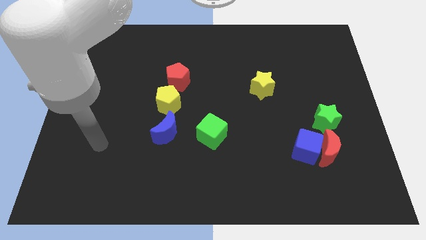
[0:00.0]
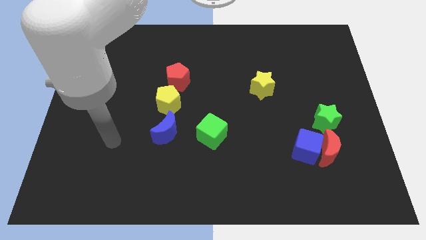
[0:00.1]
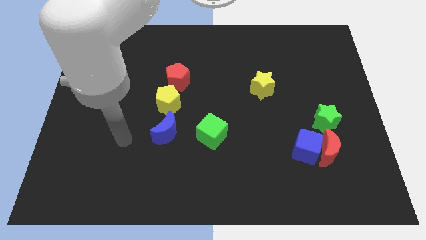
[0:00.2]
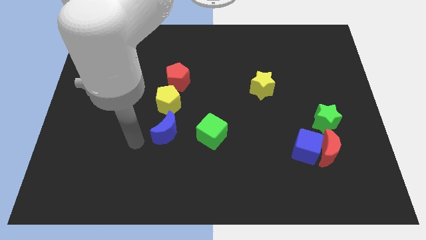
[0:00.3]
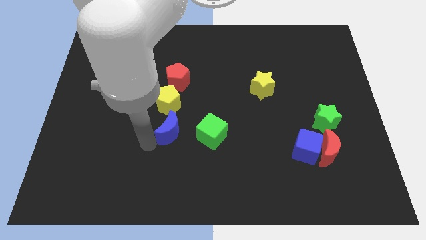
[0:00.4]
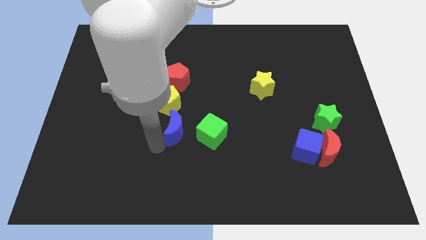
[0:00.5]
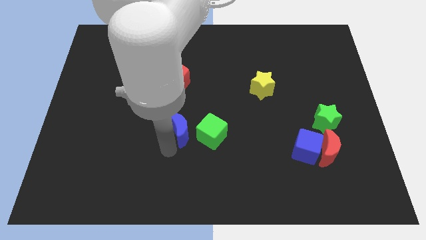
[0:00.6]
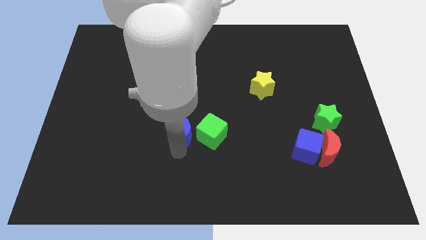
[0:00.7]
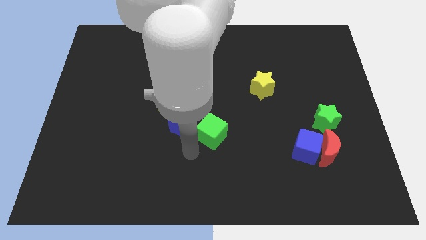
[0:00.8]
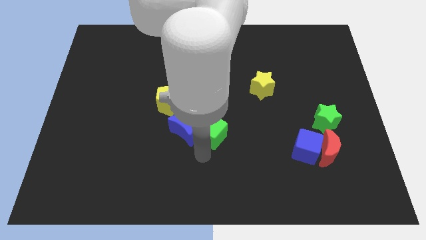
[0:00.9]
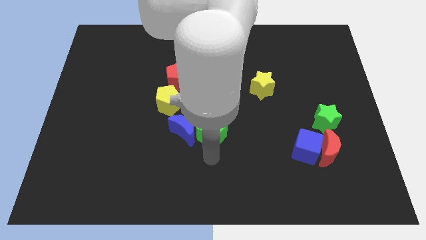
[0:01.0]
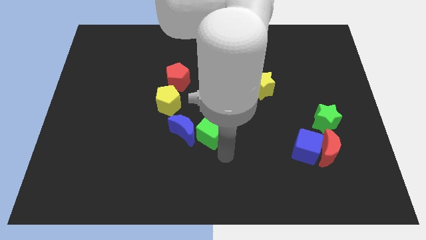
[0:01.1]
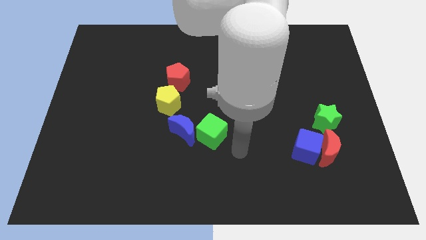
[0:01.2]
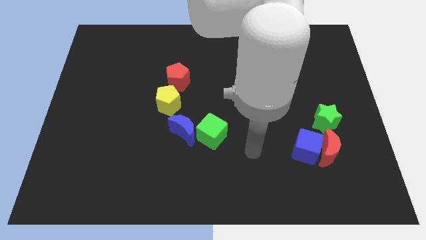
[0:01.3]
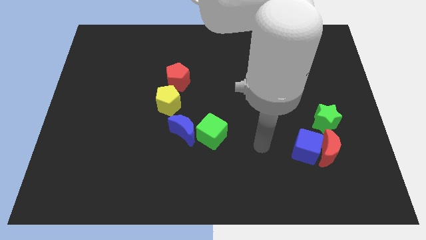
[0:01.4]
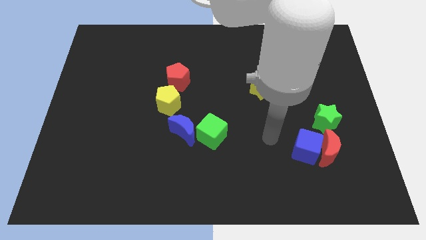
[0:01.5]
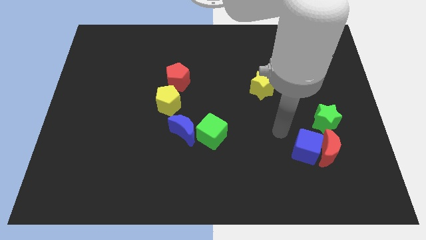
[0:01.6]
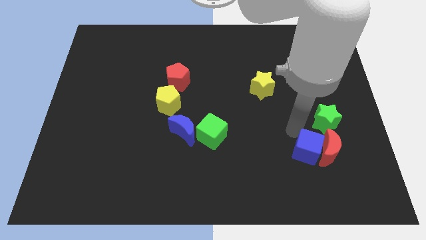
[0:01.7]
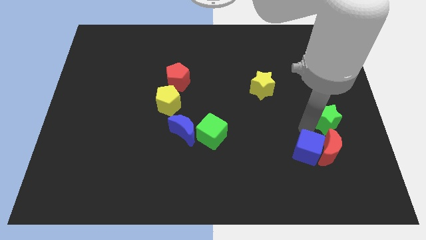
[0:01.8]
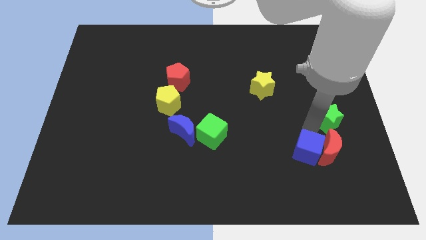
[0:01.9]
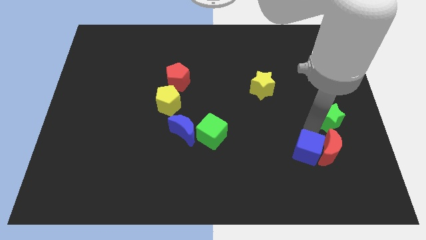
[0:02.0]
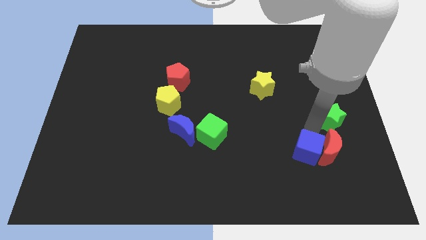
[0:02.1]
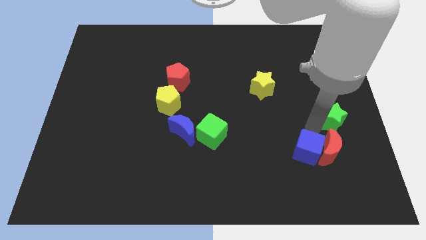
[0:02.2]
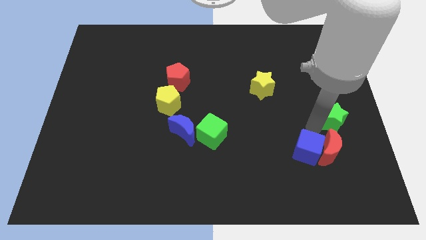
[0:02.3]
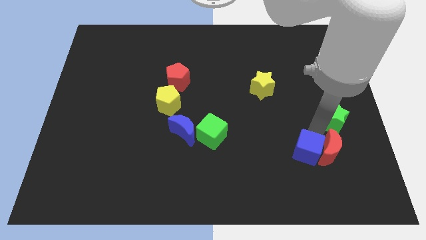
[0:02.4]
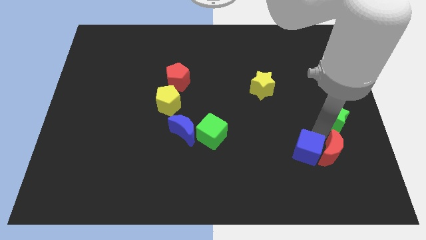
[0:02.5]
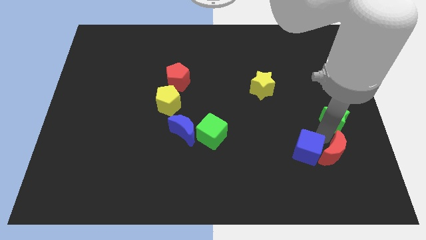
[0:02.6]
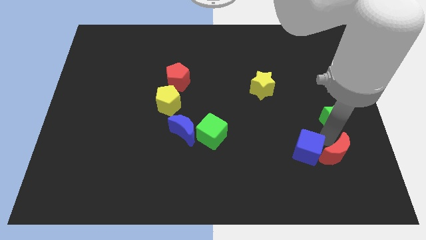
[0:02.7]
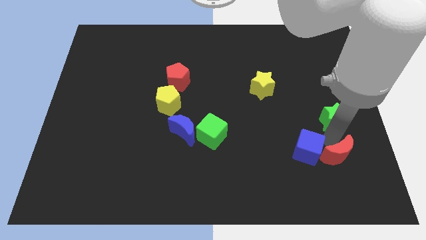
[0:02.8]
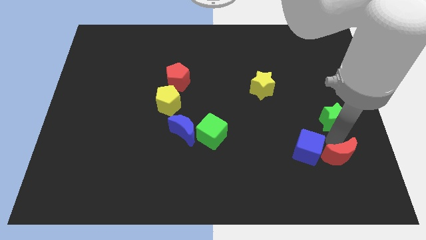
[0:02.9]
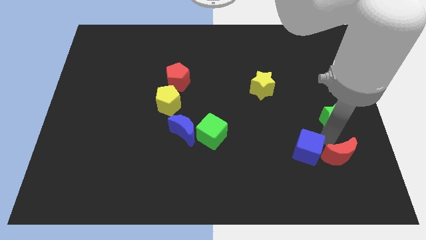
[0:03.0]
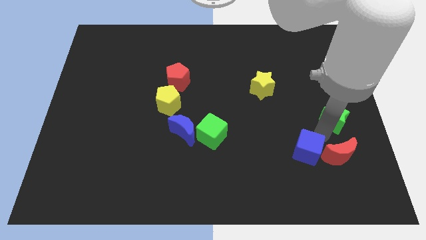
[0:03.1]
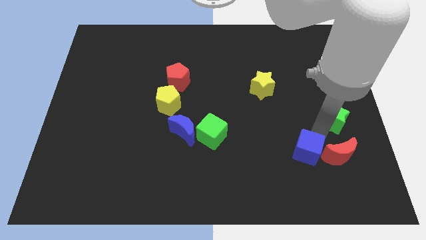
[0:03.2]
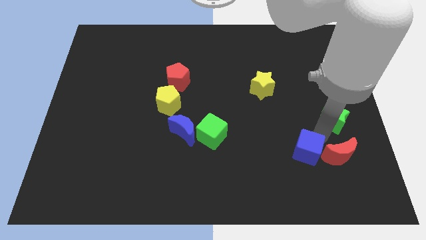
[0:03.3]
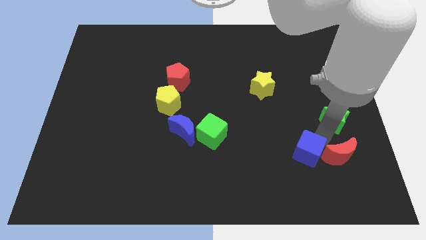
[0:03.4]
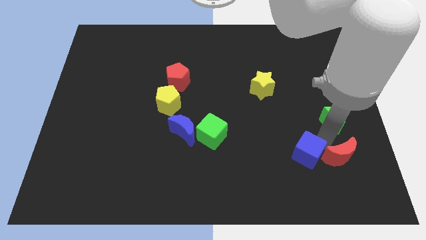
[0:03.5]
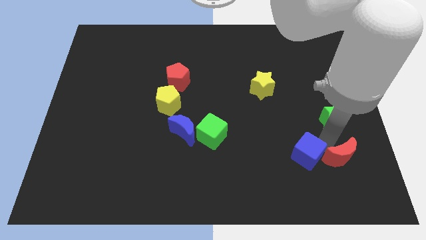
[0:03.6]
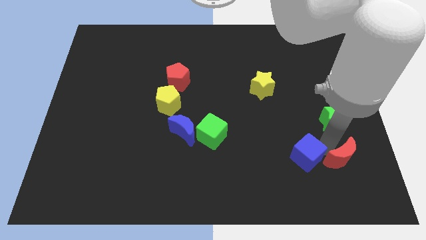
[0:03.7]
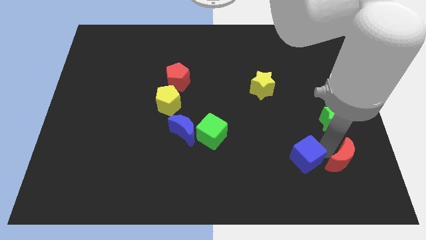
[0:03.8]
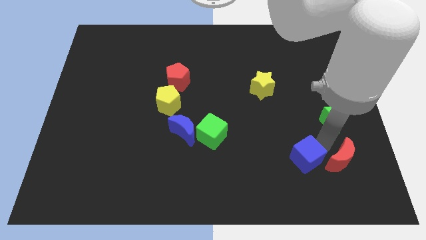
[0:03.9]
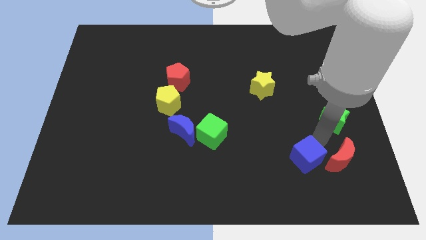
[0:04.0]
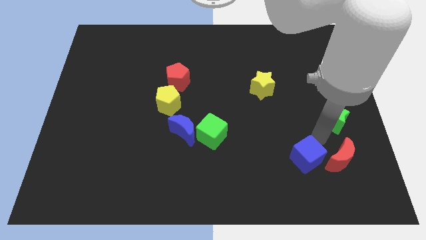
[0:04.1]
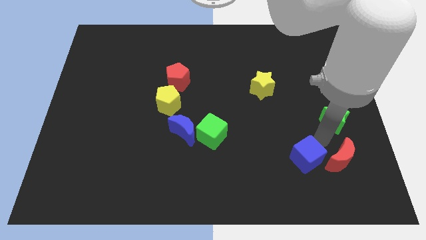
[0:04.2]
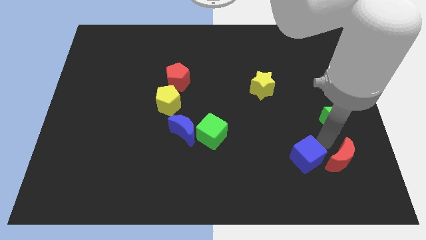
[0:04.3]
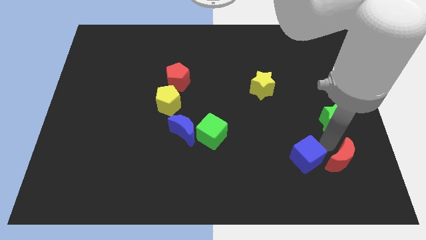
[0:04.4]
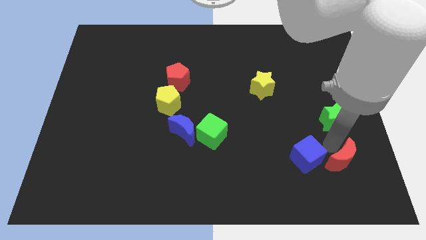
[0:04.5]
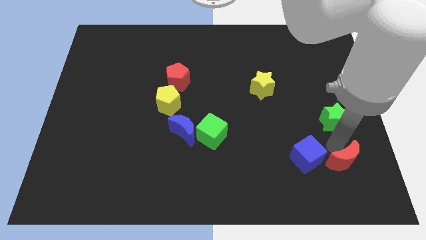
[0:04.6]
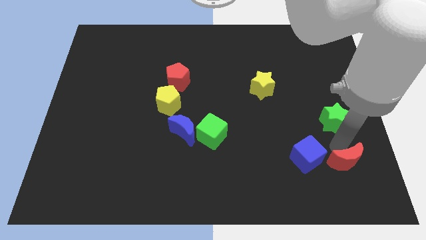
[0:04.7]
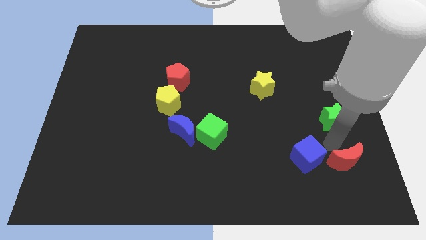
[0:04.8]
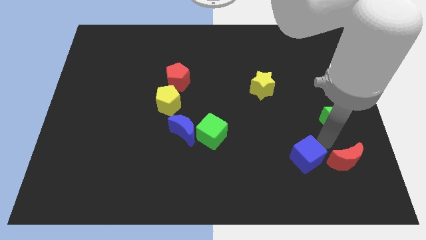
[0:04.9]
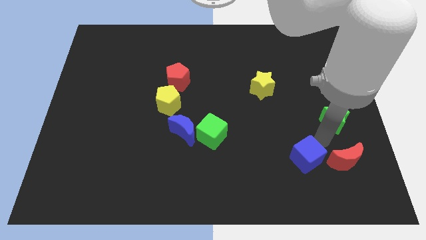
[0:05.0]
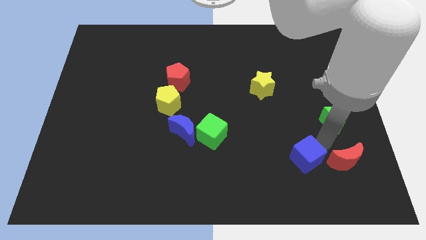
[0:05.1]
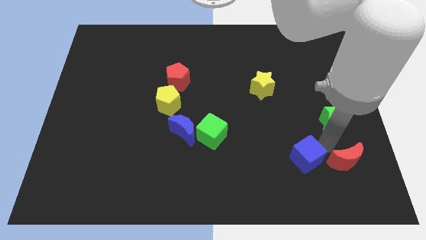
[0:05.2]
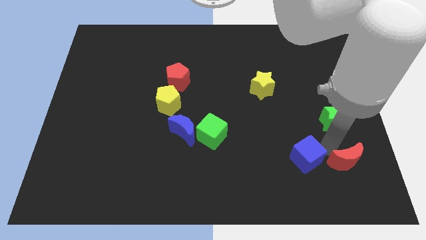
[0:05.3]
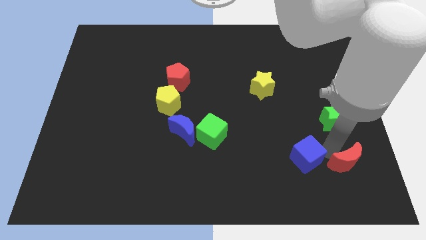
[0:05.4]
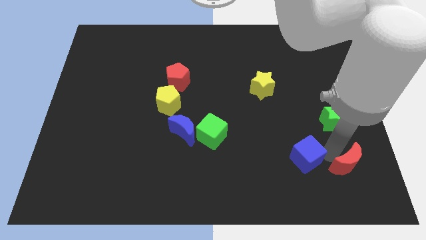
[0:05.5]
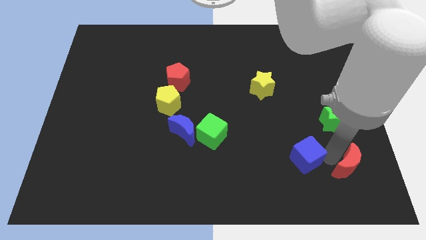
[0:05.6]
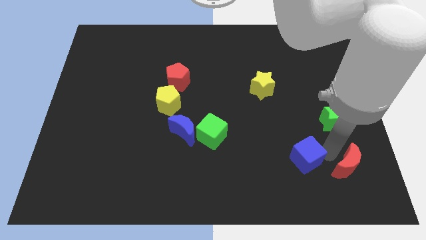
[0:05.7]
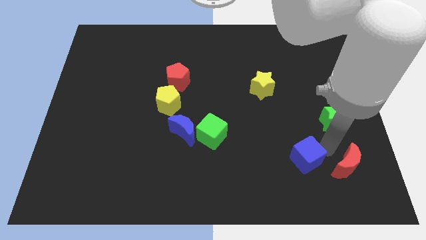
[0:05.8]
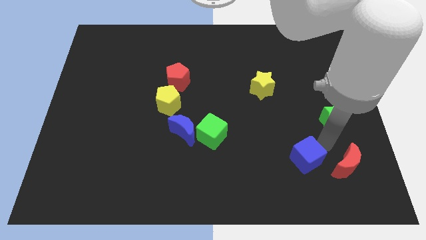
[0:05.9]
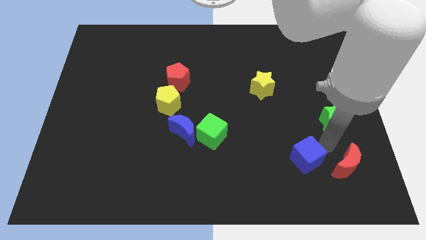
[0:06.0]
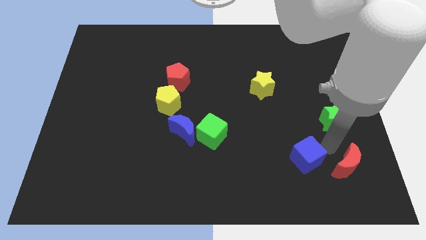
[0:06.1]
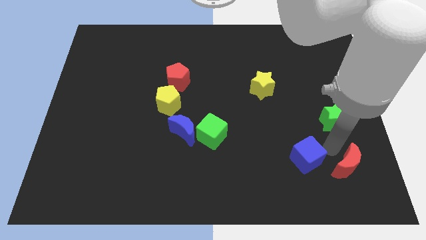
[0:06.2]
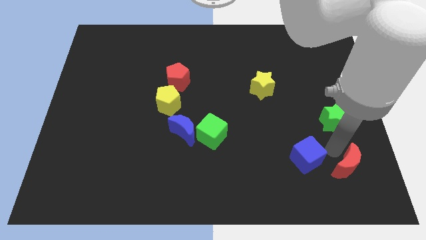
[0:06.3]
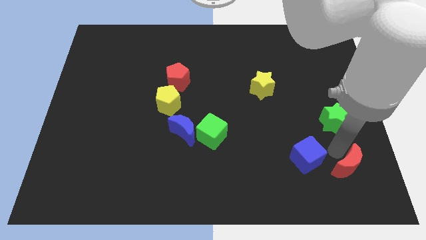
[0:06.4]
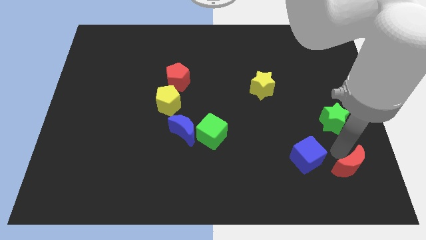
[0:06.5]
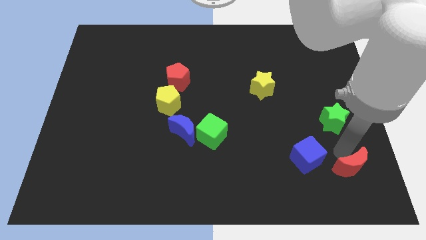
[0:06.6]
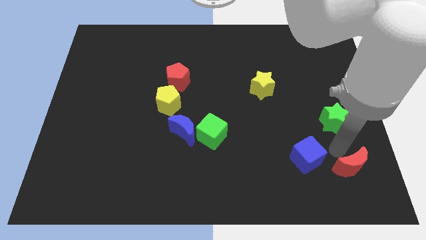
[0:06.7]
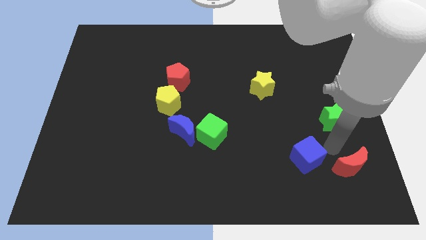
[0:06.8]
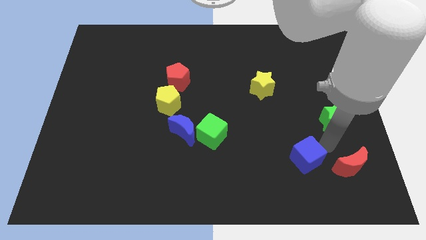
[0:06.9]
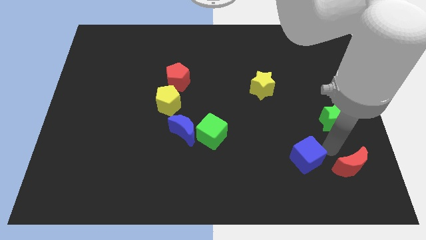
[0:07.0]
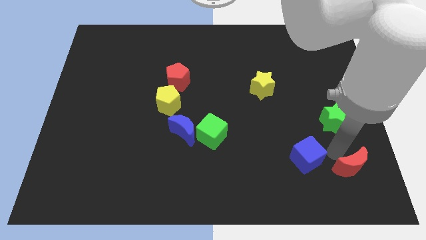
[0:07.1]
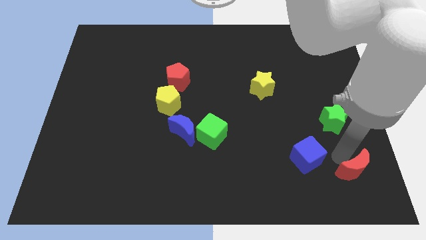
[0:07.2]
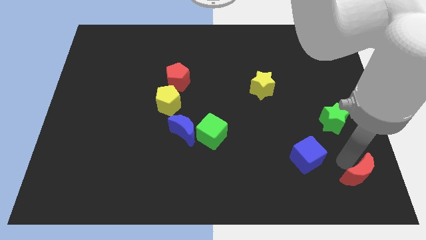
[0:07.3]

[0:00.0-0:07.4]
pull the red moon apart from the blue cube and green star

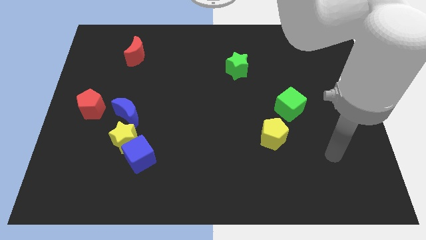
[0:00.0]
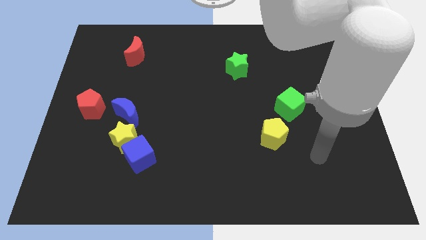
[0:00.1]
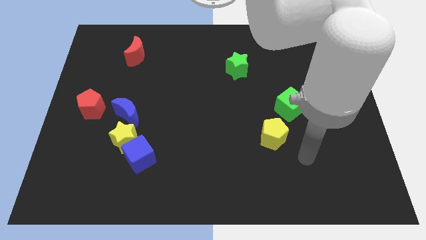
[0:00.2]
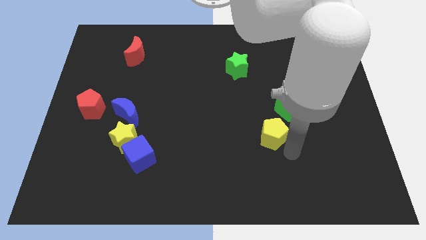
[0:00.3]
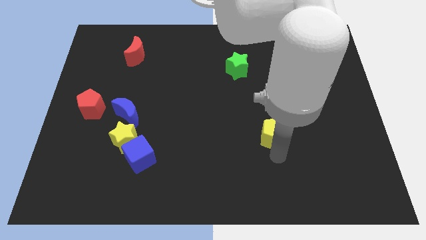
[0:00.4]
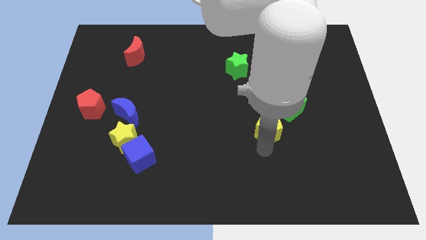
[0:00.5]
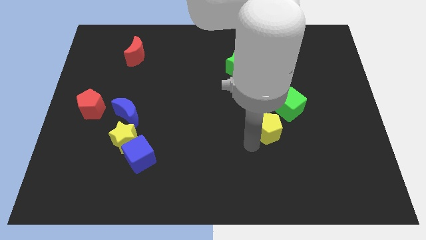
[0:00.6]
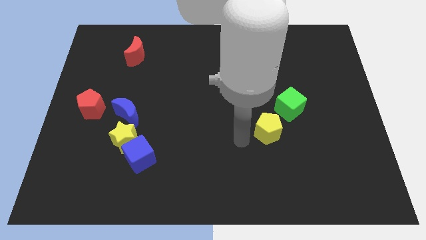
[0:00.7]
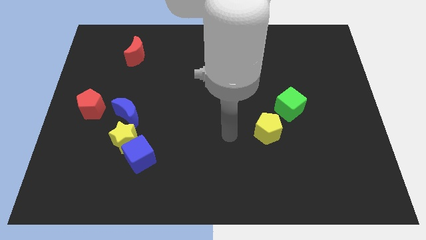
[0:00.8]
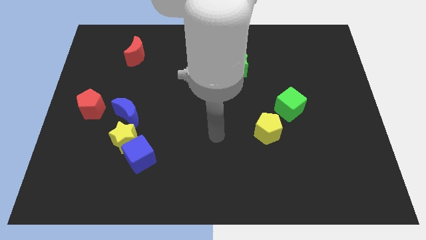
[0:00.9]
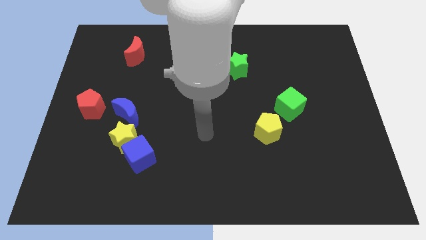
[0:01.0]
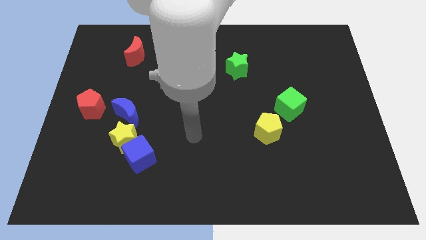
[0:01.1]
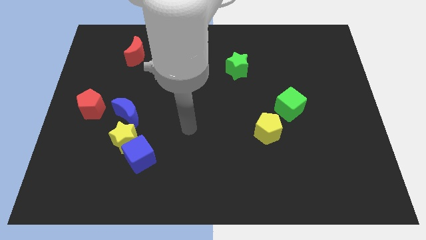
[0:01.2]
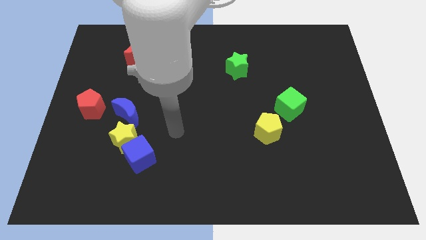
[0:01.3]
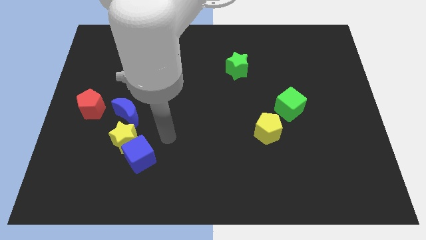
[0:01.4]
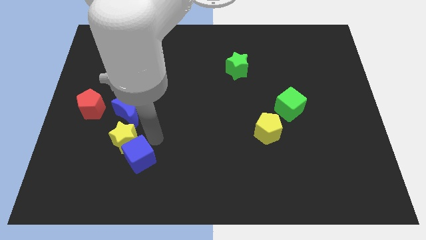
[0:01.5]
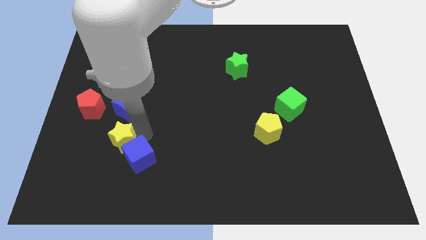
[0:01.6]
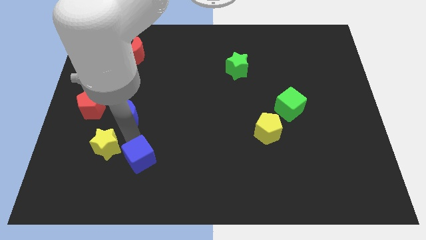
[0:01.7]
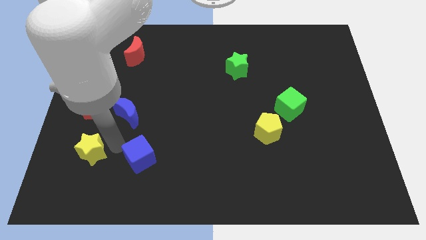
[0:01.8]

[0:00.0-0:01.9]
separate the blue cube from the yellow star
